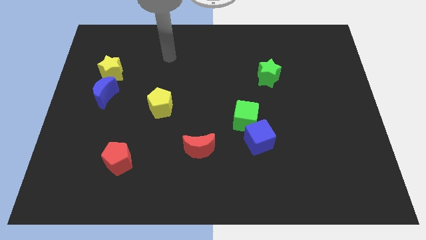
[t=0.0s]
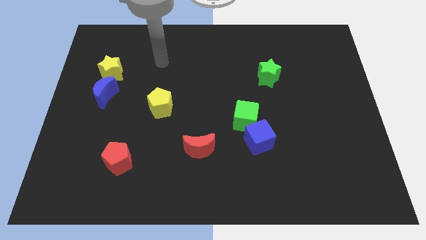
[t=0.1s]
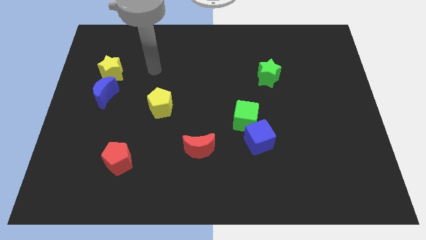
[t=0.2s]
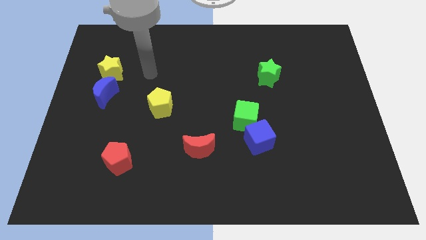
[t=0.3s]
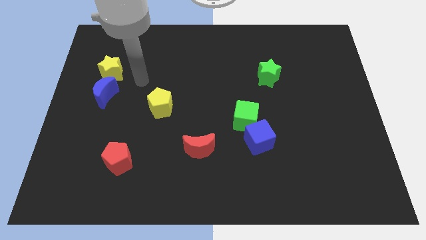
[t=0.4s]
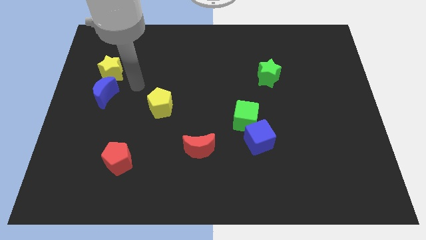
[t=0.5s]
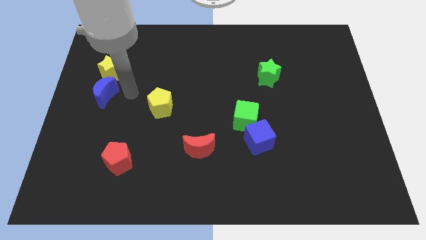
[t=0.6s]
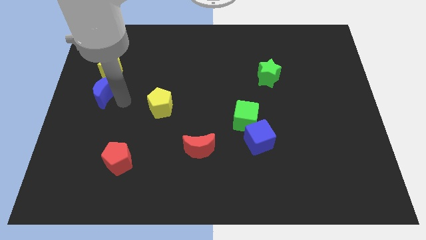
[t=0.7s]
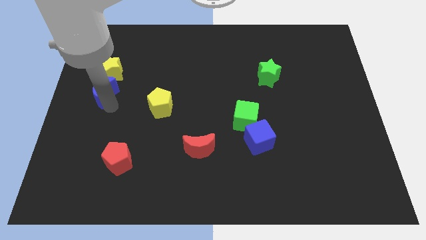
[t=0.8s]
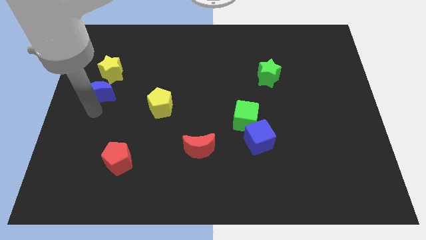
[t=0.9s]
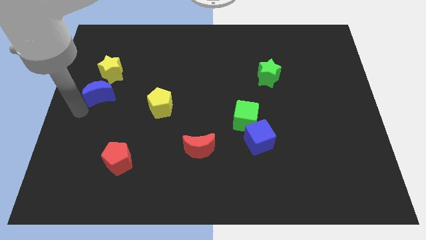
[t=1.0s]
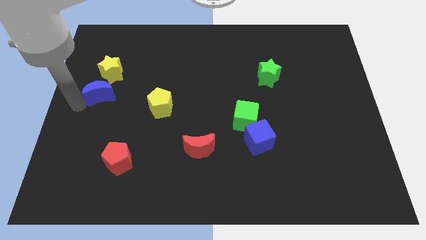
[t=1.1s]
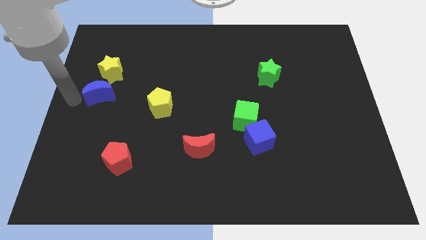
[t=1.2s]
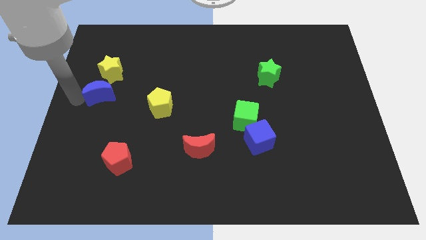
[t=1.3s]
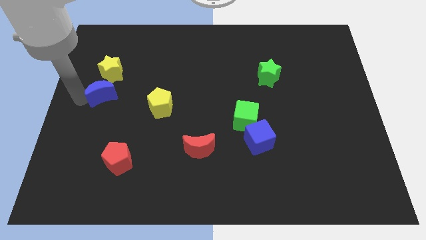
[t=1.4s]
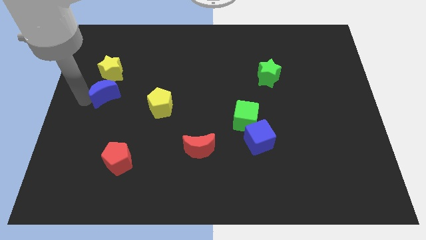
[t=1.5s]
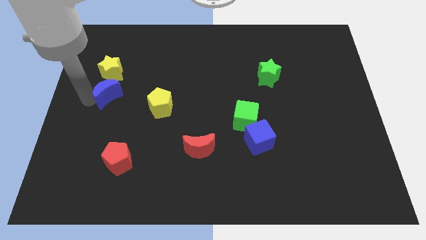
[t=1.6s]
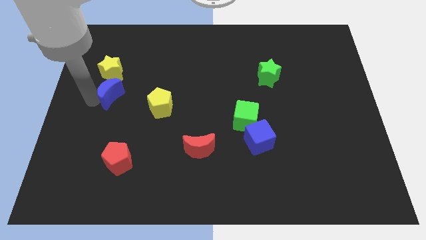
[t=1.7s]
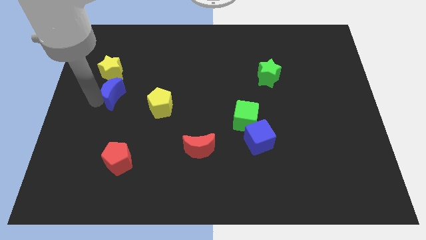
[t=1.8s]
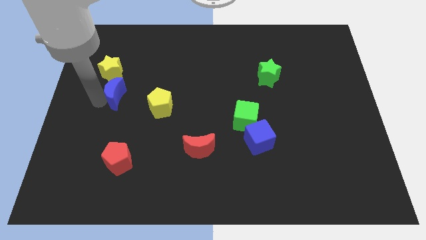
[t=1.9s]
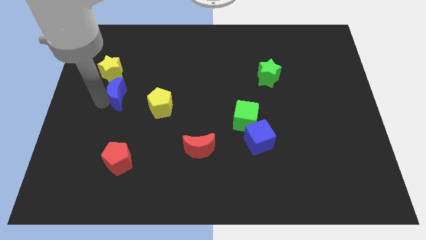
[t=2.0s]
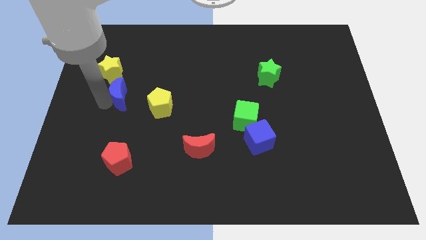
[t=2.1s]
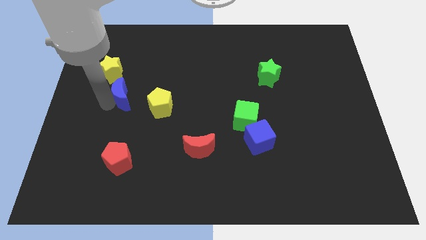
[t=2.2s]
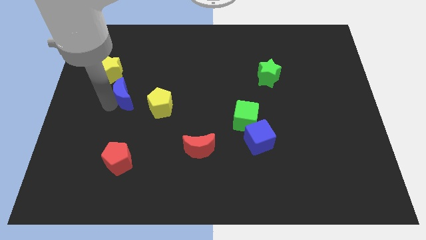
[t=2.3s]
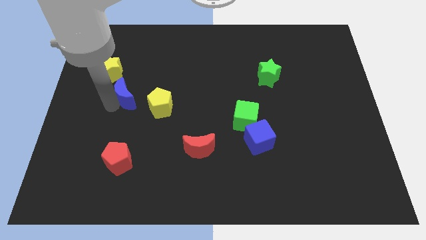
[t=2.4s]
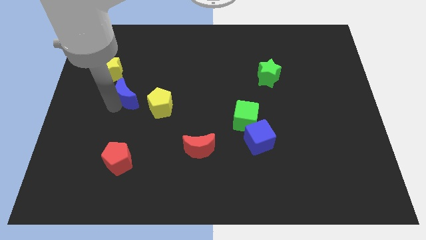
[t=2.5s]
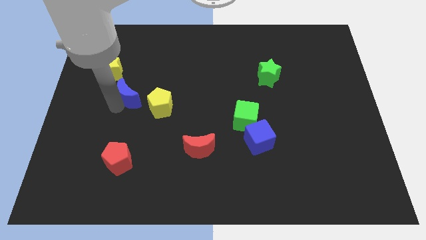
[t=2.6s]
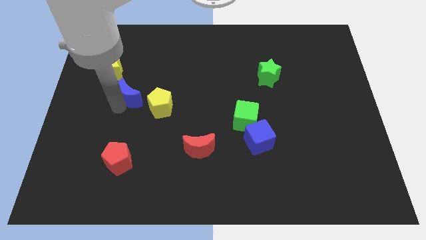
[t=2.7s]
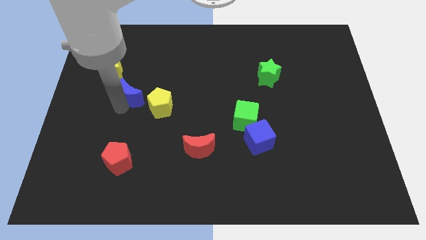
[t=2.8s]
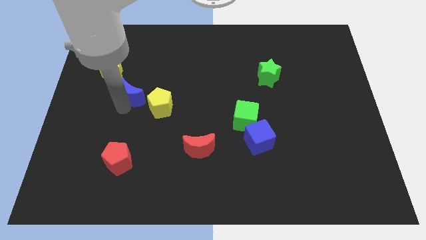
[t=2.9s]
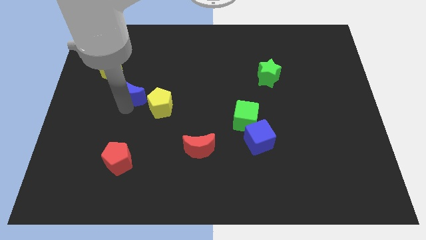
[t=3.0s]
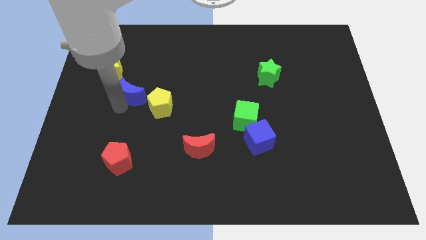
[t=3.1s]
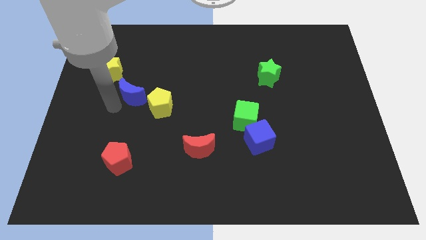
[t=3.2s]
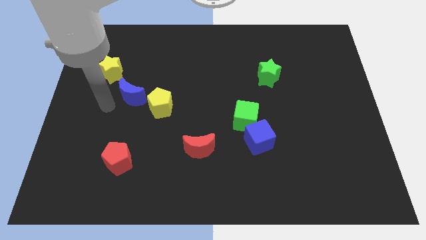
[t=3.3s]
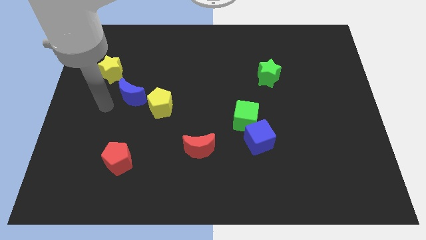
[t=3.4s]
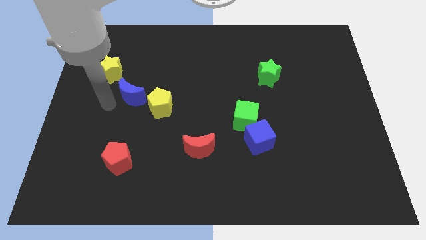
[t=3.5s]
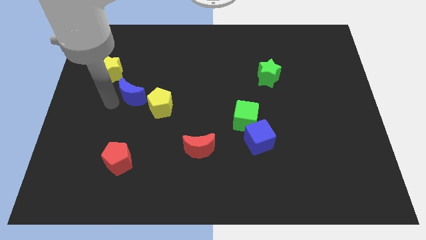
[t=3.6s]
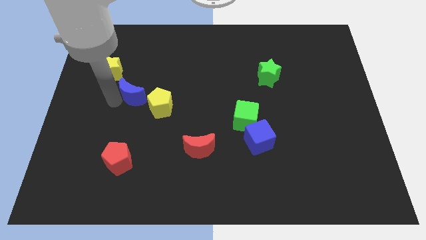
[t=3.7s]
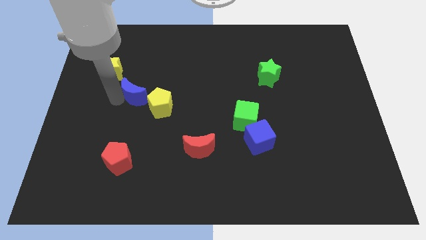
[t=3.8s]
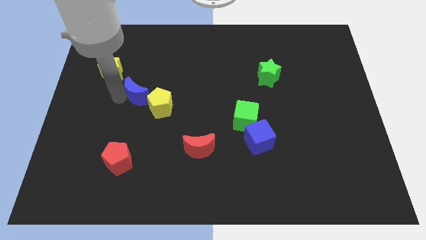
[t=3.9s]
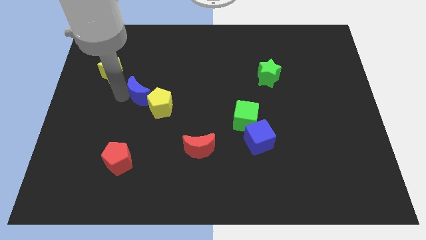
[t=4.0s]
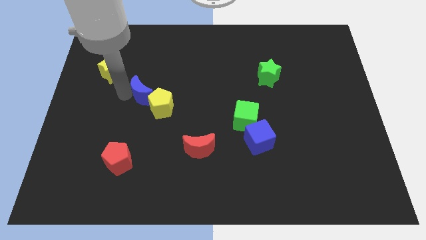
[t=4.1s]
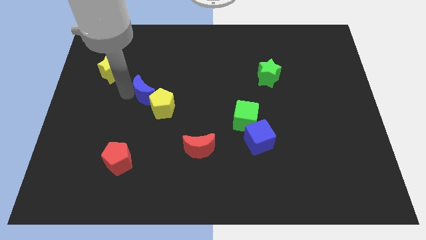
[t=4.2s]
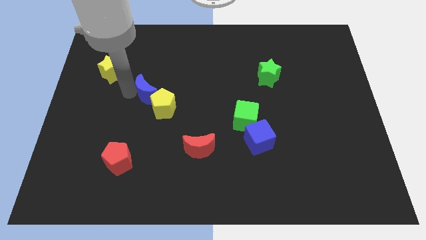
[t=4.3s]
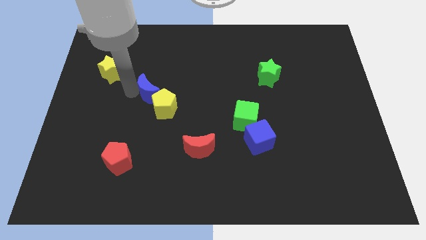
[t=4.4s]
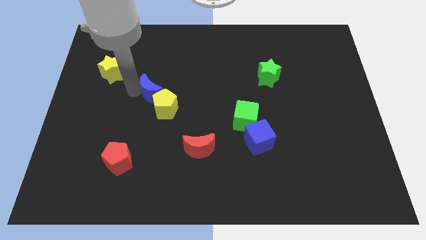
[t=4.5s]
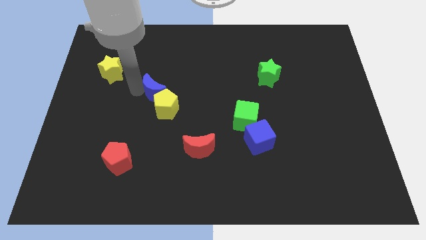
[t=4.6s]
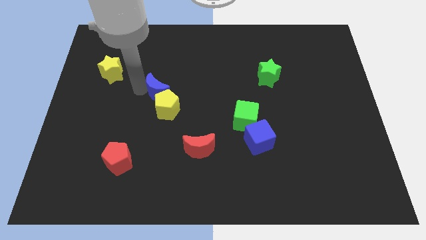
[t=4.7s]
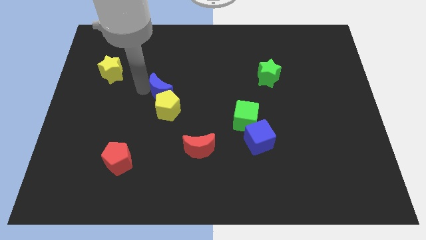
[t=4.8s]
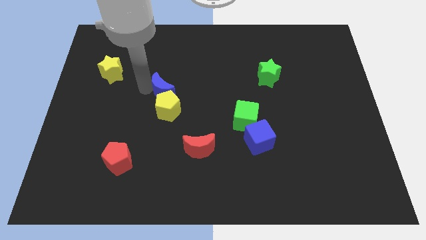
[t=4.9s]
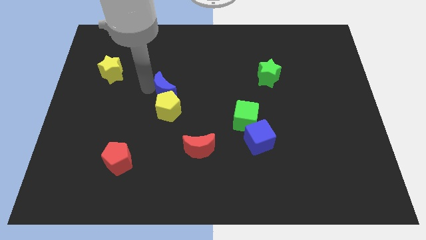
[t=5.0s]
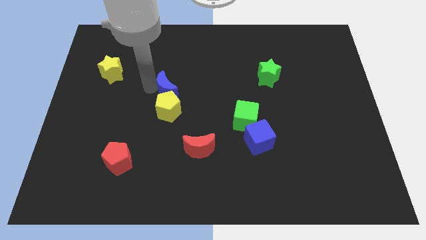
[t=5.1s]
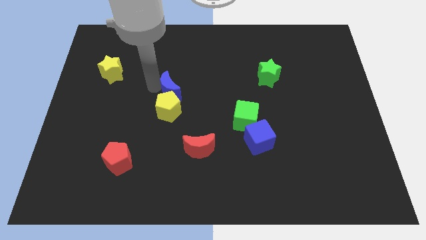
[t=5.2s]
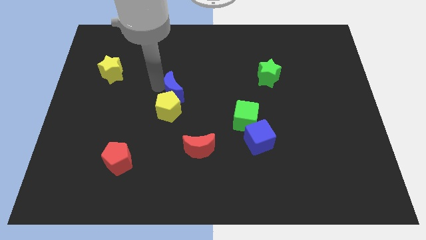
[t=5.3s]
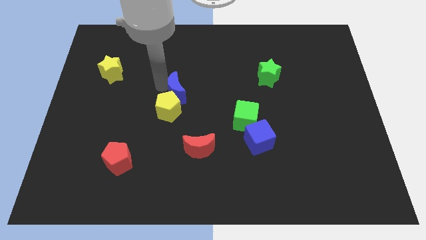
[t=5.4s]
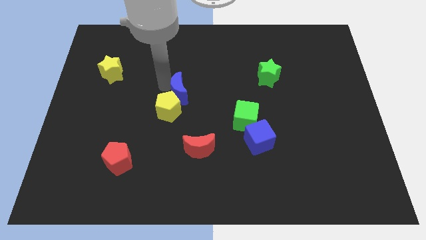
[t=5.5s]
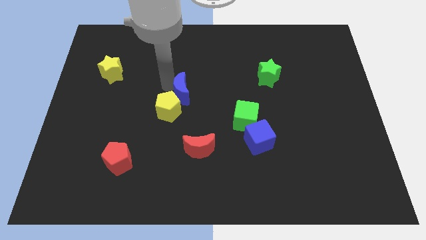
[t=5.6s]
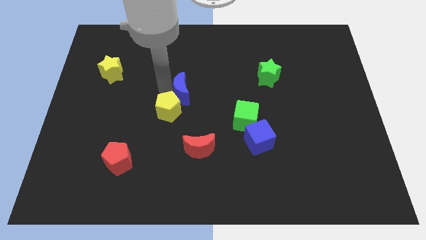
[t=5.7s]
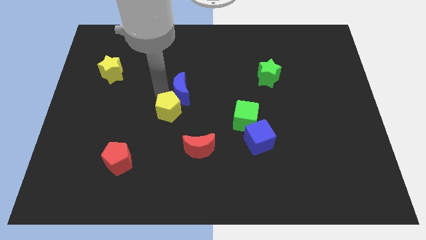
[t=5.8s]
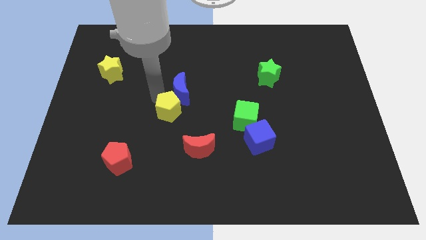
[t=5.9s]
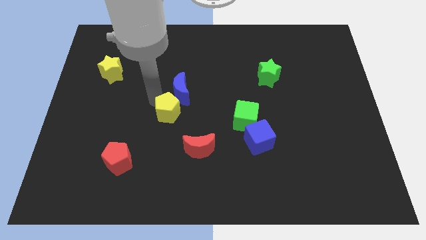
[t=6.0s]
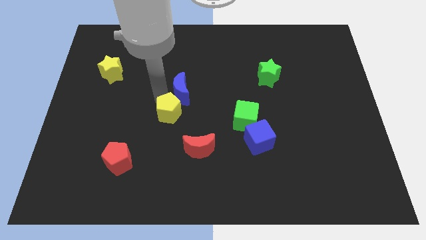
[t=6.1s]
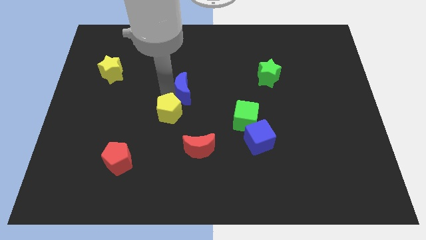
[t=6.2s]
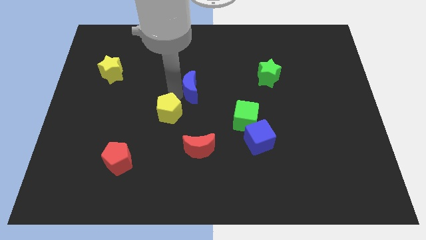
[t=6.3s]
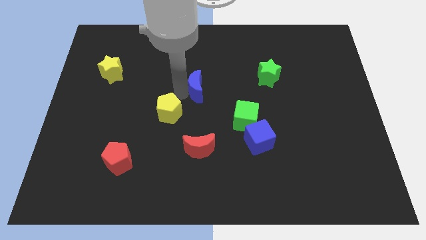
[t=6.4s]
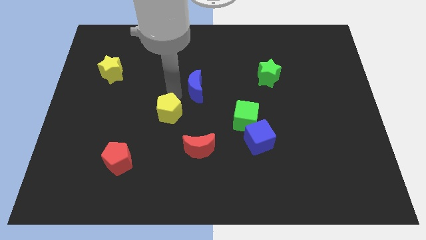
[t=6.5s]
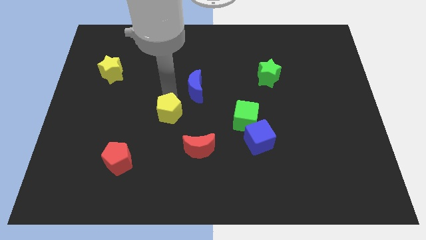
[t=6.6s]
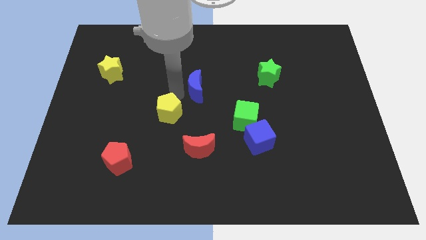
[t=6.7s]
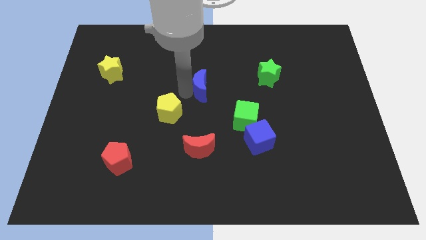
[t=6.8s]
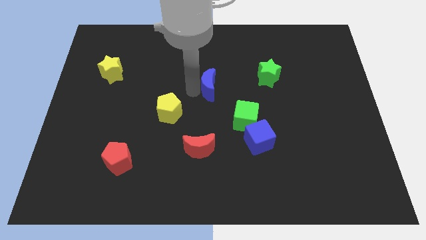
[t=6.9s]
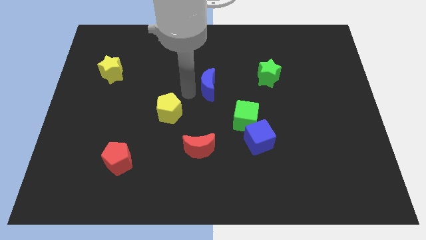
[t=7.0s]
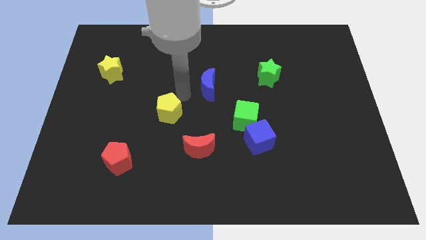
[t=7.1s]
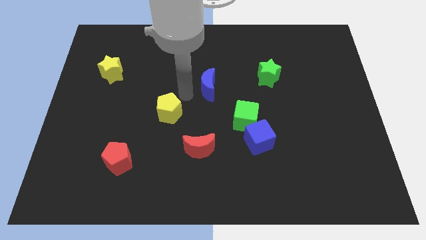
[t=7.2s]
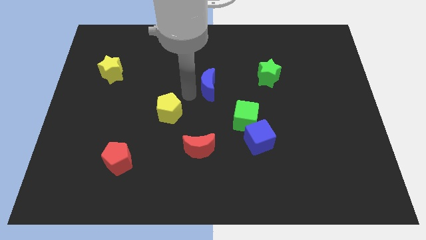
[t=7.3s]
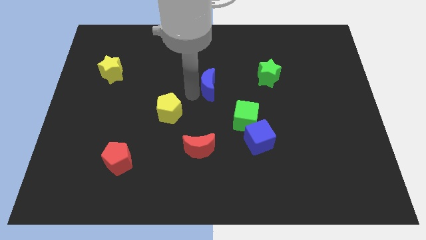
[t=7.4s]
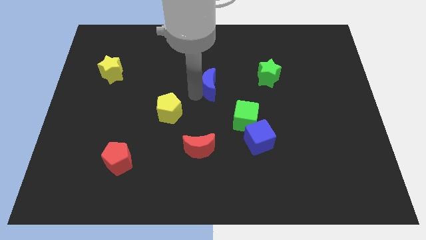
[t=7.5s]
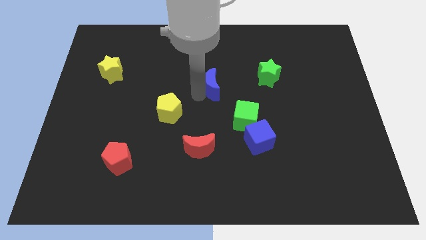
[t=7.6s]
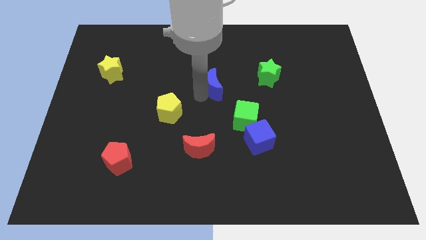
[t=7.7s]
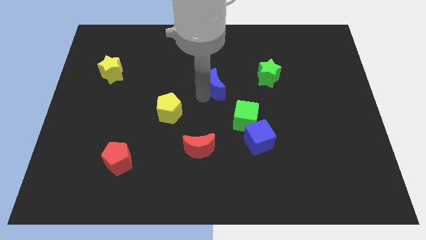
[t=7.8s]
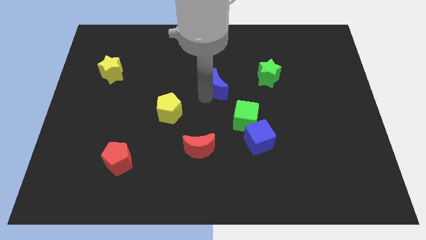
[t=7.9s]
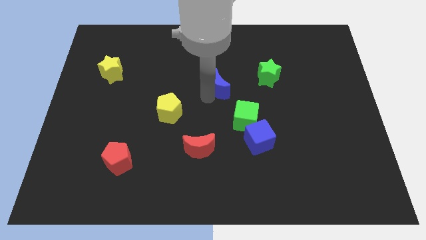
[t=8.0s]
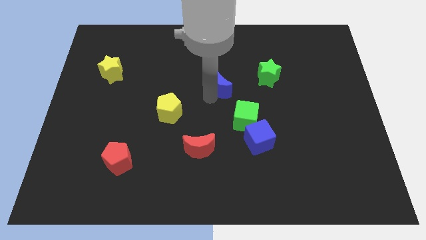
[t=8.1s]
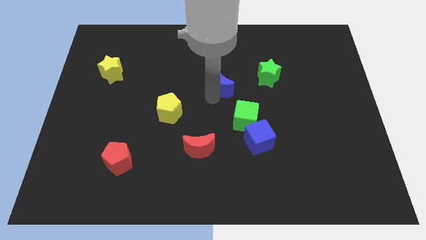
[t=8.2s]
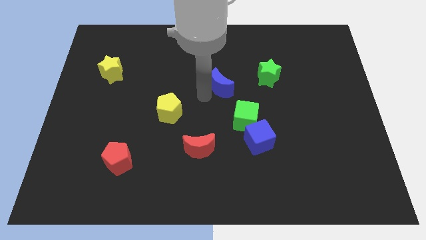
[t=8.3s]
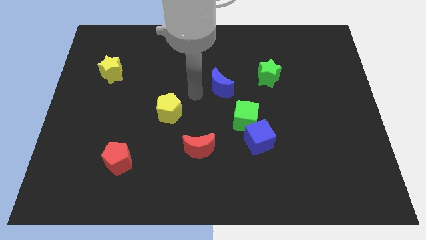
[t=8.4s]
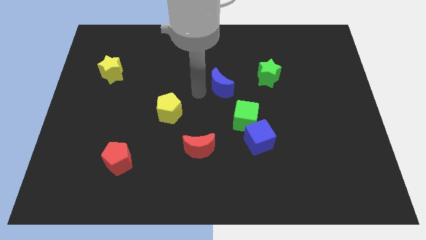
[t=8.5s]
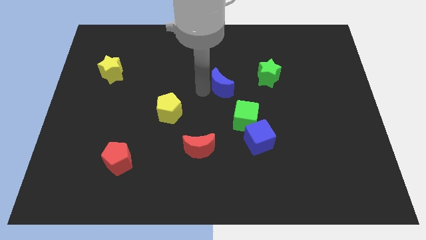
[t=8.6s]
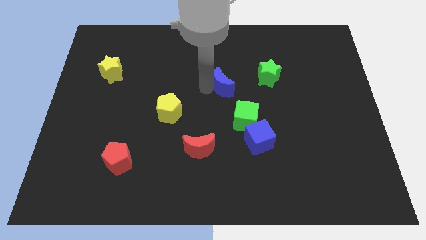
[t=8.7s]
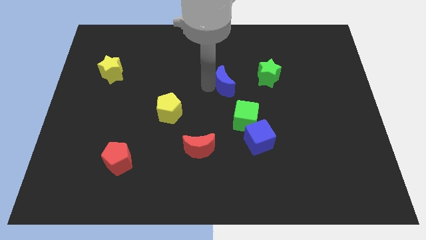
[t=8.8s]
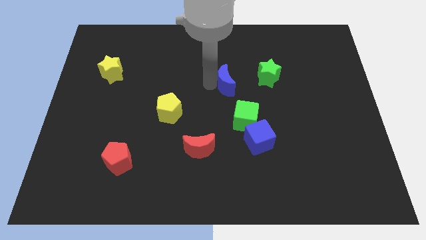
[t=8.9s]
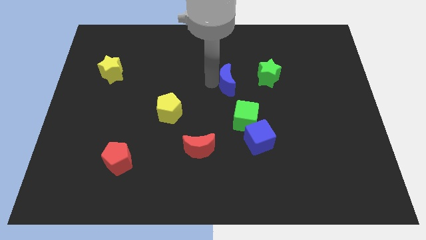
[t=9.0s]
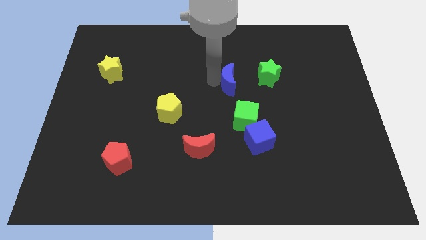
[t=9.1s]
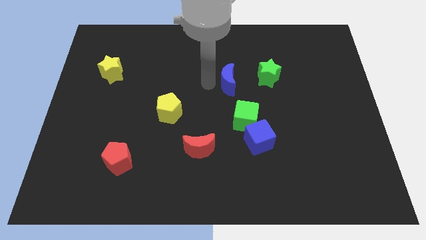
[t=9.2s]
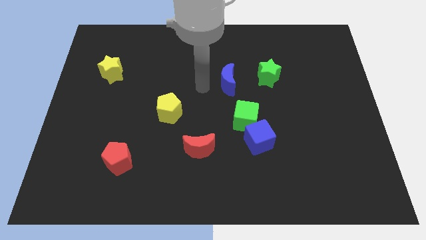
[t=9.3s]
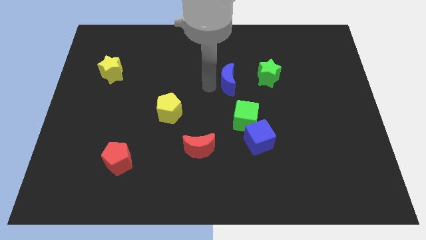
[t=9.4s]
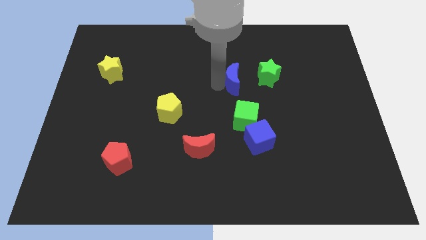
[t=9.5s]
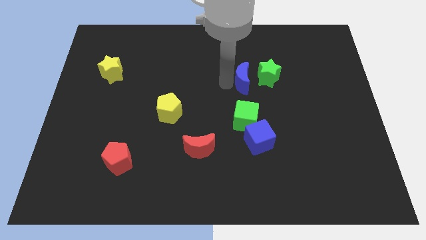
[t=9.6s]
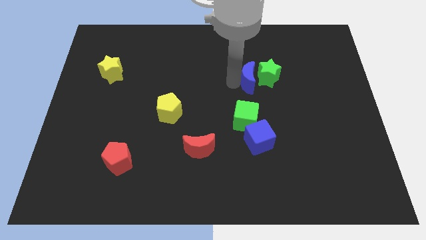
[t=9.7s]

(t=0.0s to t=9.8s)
push the blue moon towards the green star
